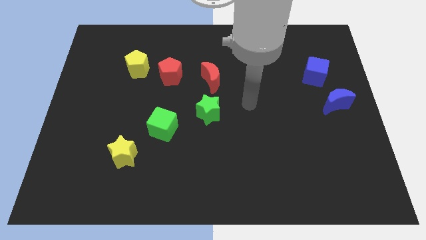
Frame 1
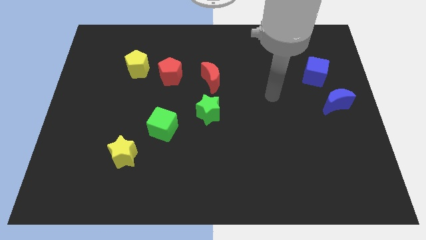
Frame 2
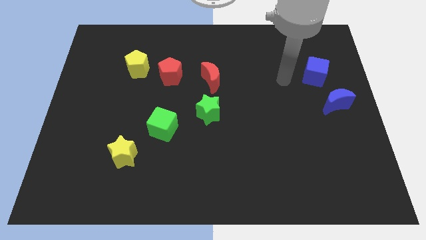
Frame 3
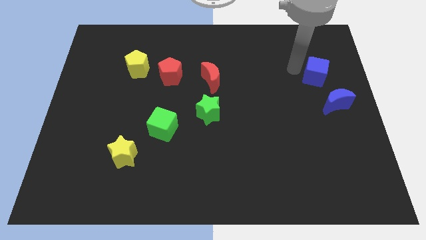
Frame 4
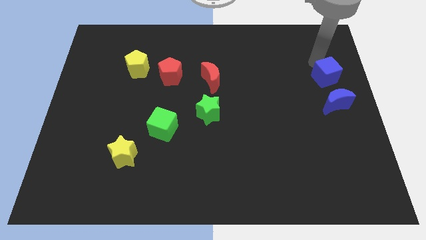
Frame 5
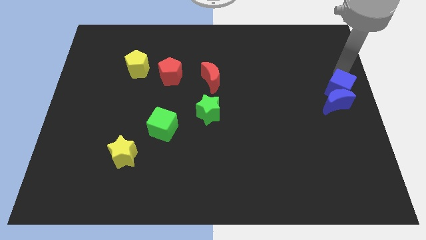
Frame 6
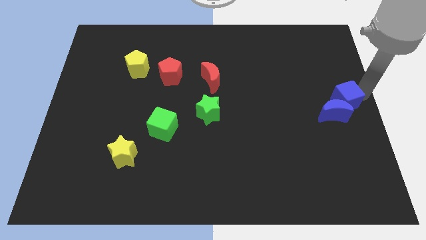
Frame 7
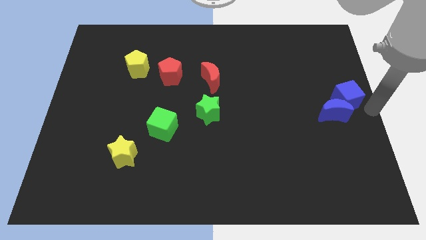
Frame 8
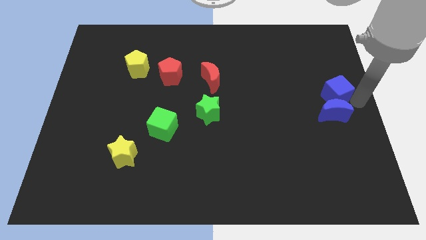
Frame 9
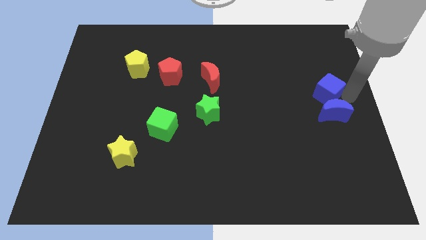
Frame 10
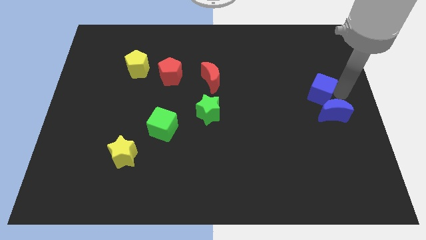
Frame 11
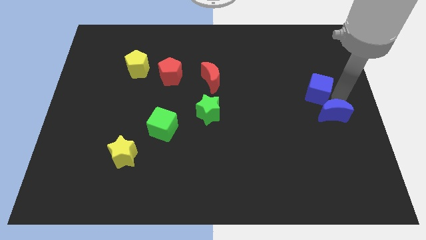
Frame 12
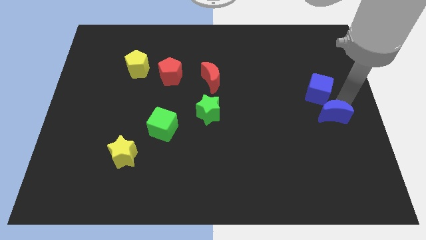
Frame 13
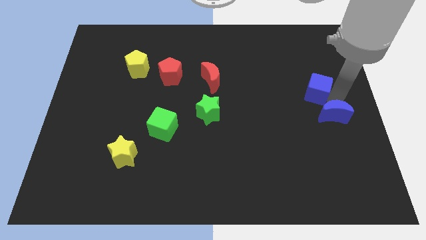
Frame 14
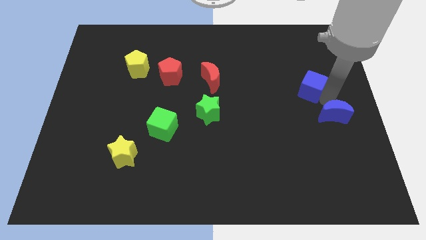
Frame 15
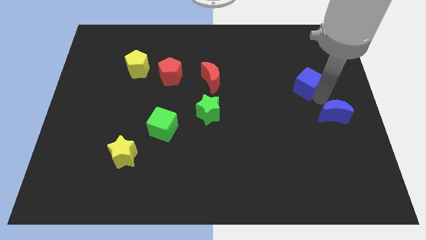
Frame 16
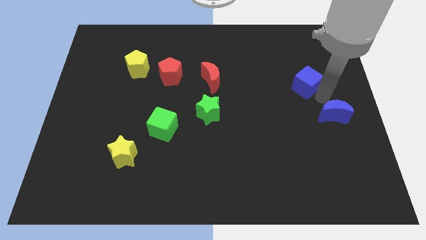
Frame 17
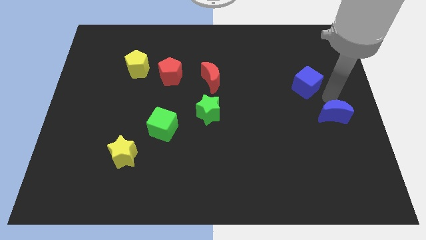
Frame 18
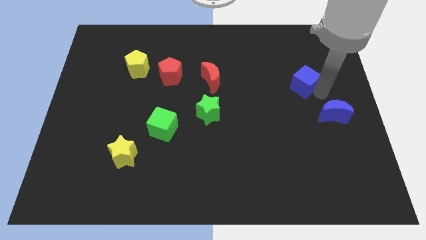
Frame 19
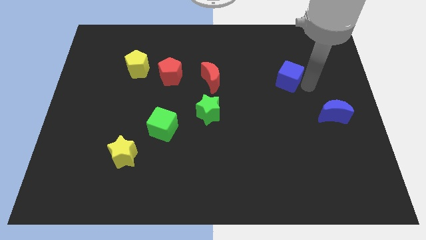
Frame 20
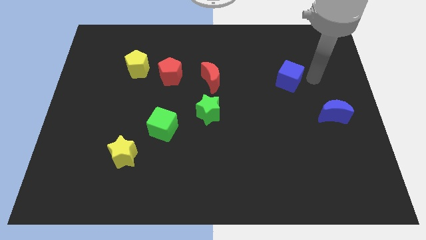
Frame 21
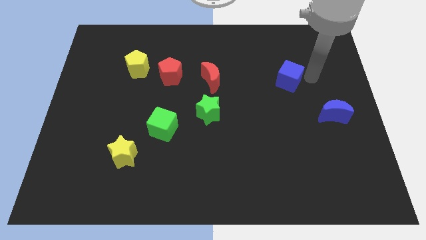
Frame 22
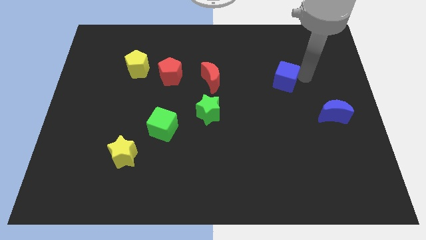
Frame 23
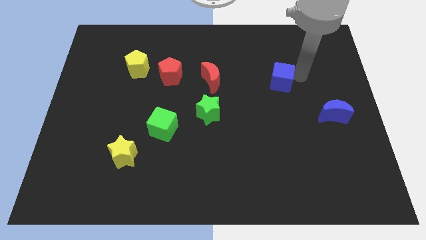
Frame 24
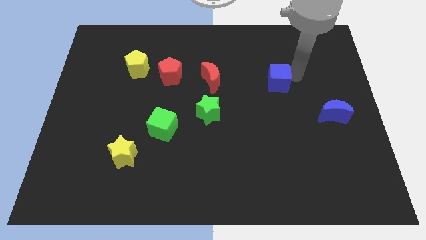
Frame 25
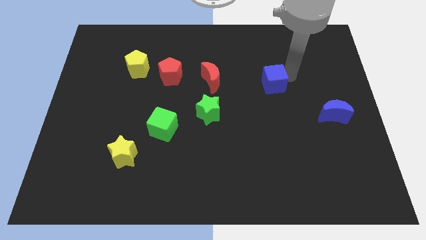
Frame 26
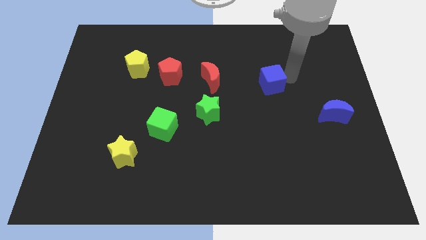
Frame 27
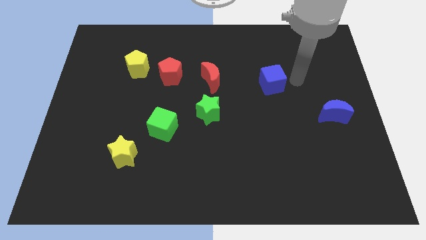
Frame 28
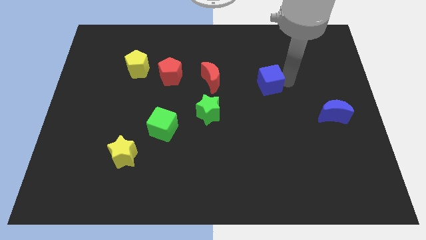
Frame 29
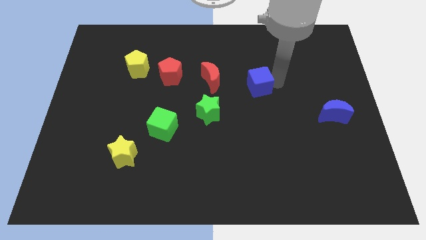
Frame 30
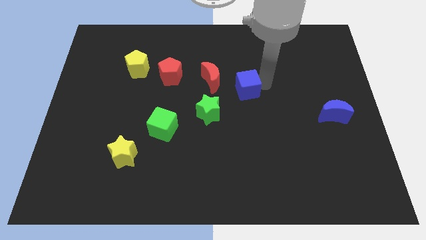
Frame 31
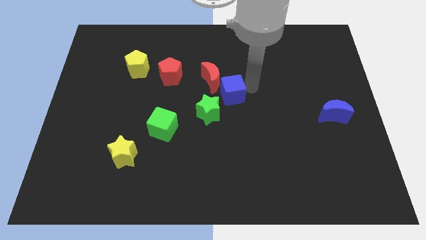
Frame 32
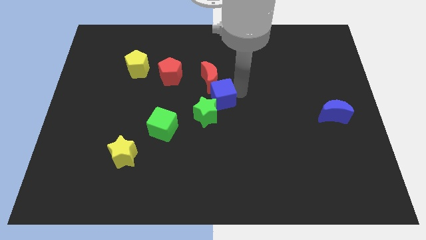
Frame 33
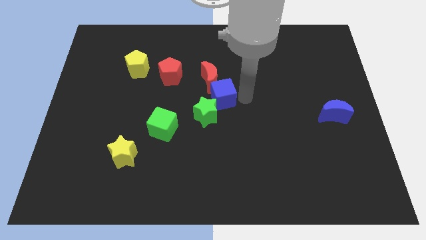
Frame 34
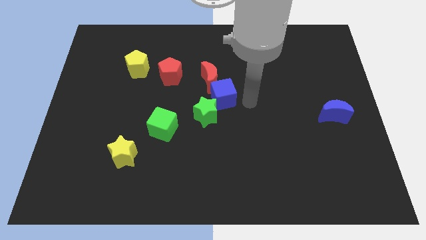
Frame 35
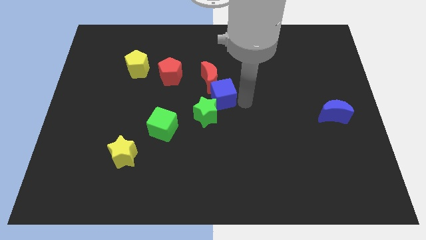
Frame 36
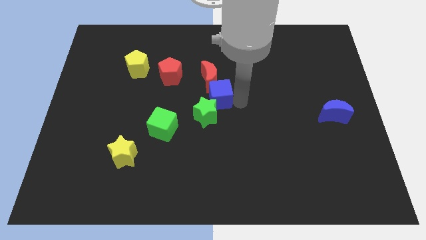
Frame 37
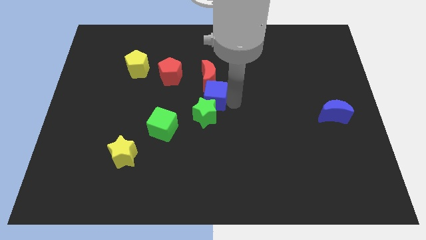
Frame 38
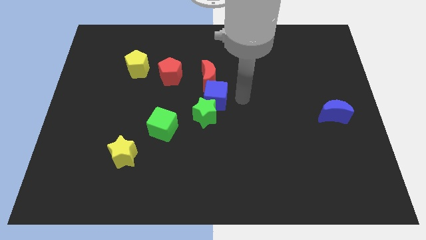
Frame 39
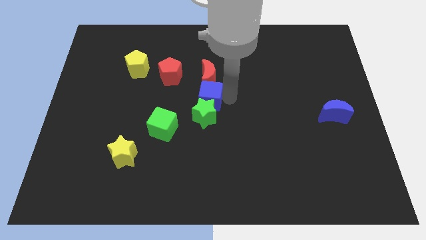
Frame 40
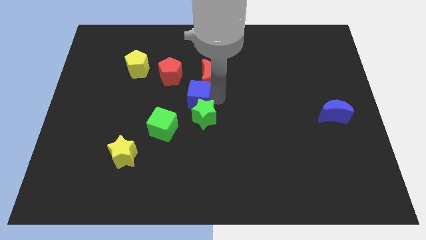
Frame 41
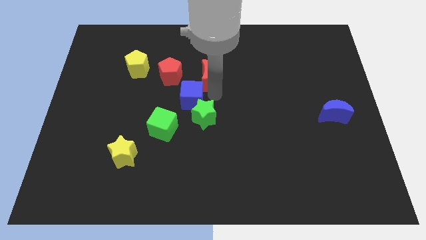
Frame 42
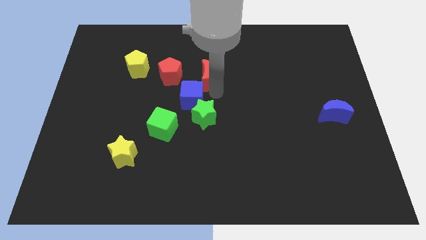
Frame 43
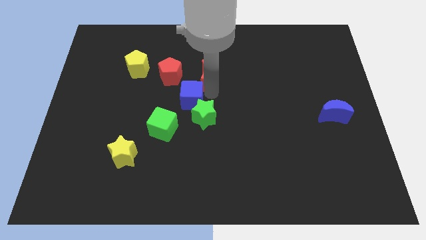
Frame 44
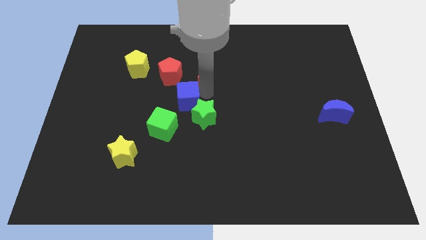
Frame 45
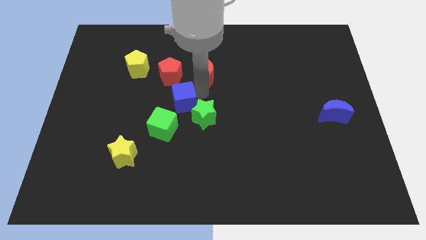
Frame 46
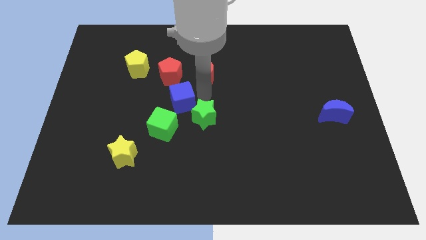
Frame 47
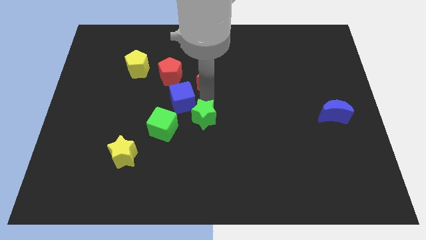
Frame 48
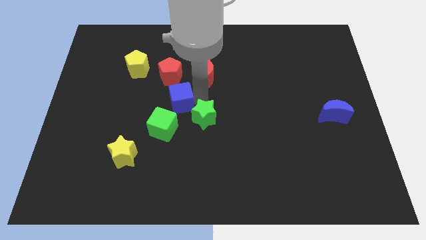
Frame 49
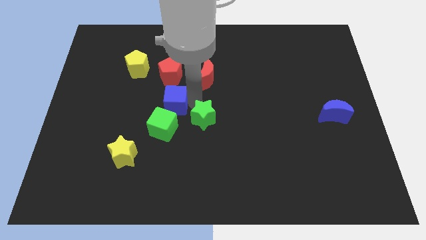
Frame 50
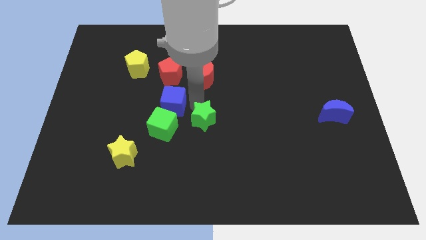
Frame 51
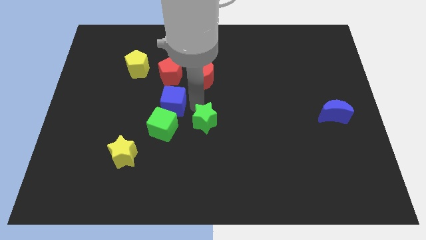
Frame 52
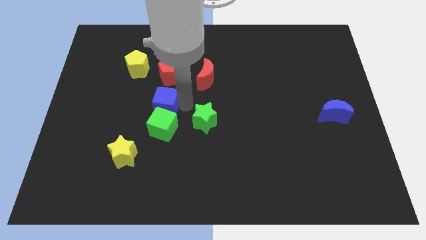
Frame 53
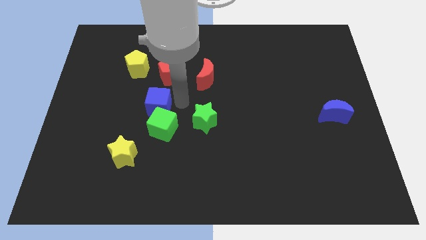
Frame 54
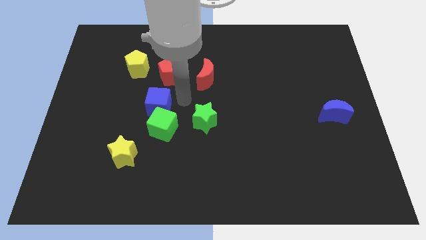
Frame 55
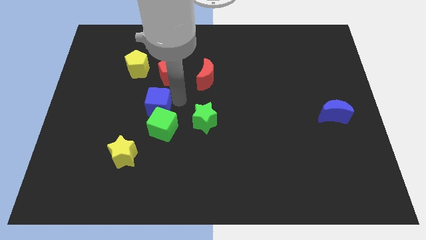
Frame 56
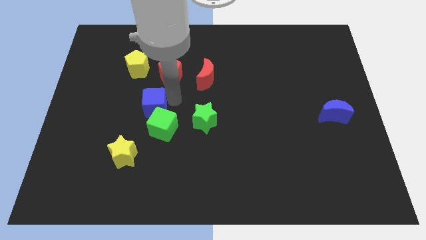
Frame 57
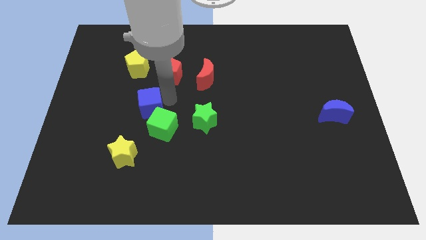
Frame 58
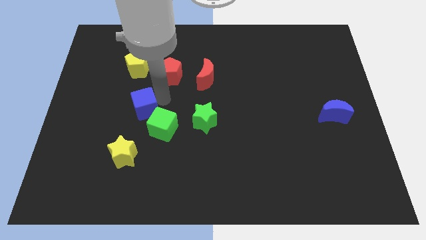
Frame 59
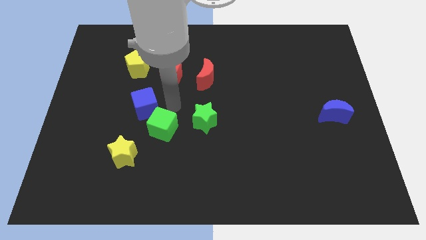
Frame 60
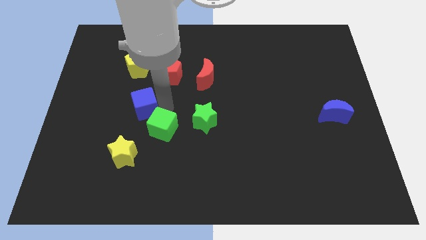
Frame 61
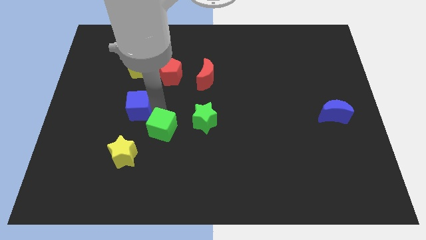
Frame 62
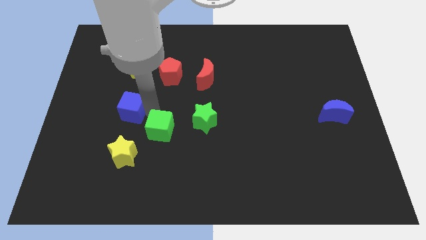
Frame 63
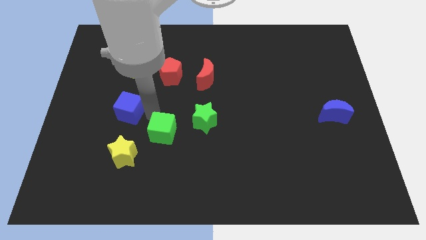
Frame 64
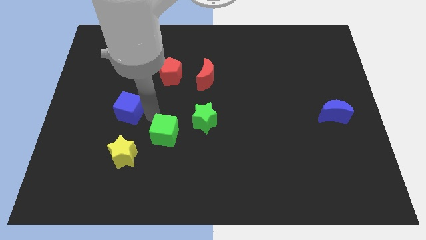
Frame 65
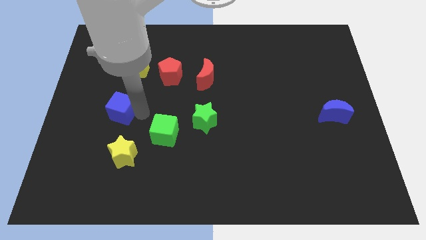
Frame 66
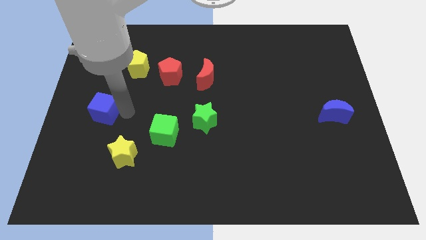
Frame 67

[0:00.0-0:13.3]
move the blue cube to the left side
